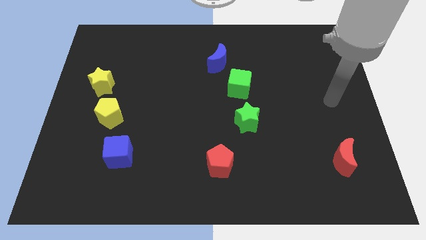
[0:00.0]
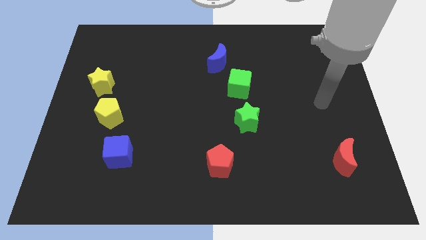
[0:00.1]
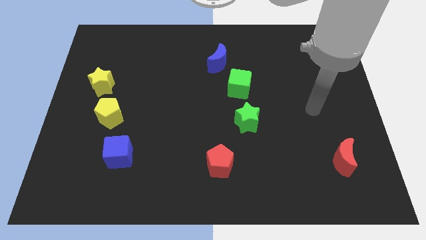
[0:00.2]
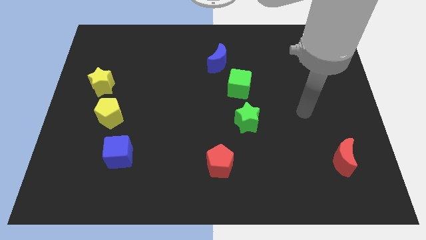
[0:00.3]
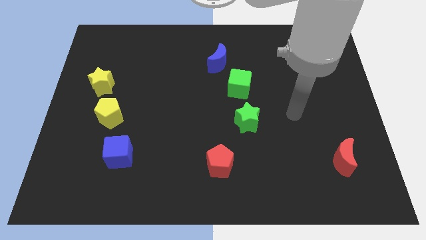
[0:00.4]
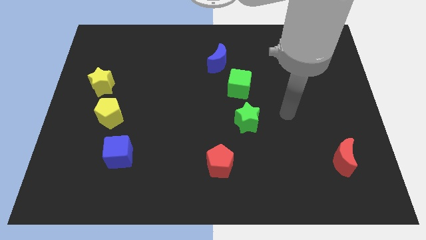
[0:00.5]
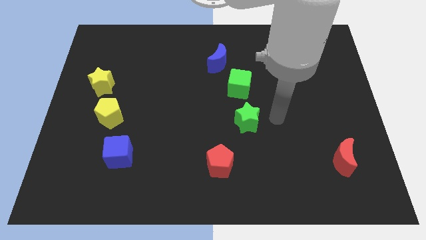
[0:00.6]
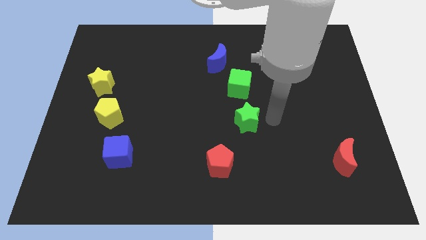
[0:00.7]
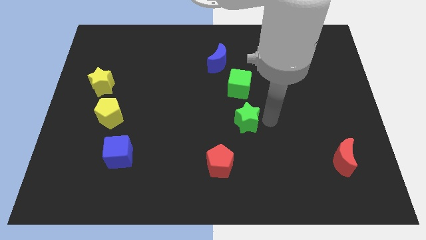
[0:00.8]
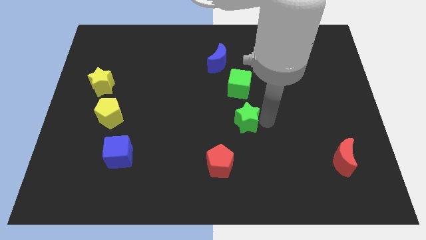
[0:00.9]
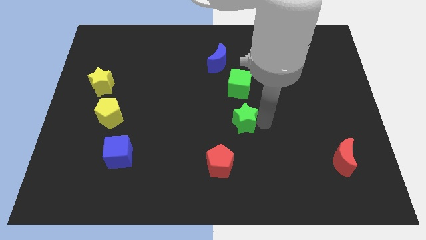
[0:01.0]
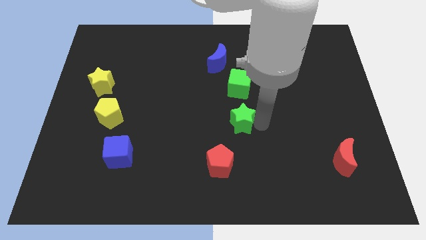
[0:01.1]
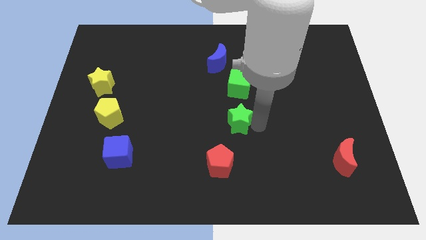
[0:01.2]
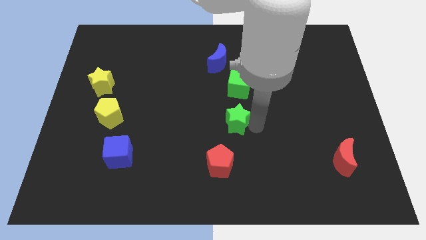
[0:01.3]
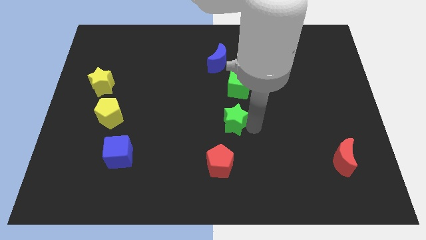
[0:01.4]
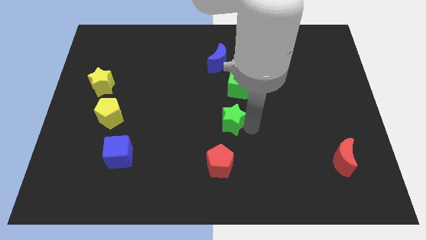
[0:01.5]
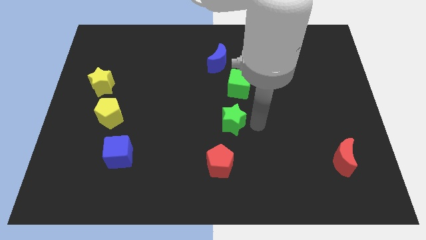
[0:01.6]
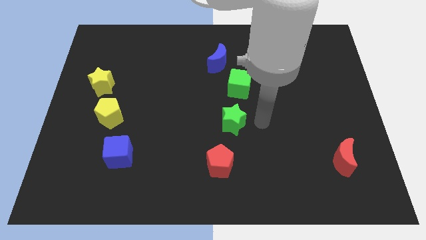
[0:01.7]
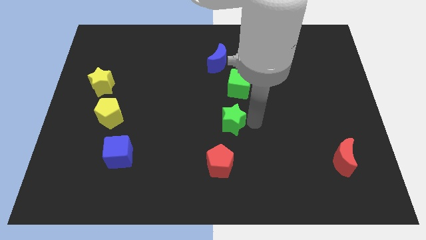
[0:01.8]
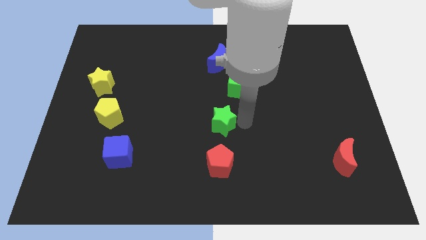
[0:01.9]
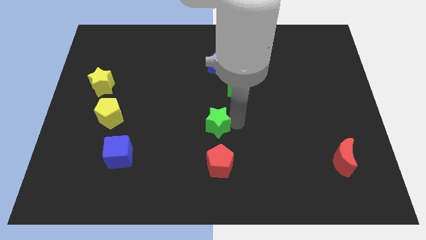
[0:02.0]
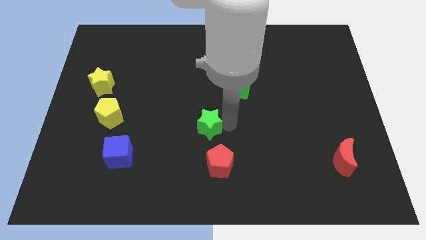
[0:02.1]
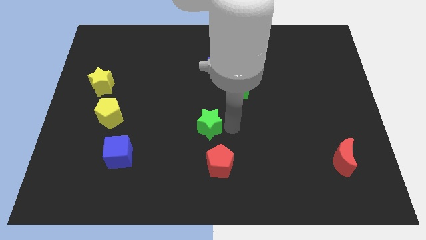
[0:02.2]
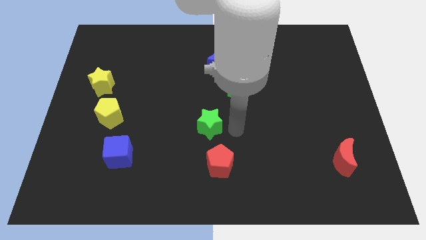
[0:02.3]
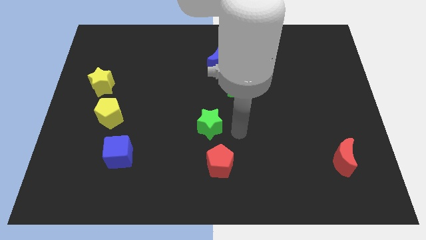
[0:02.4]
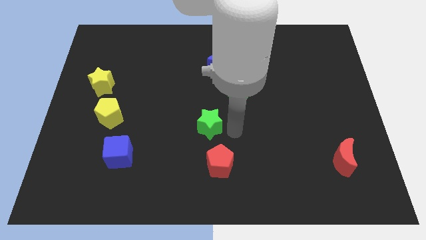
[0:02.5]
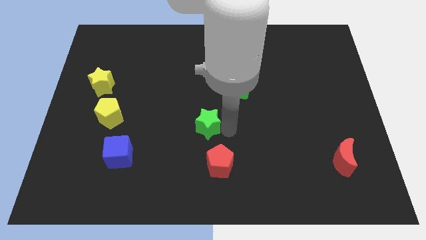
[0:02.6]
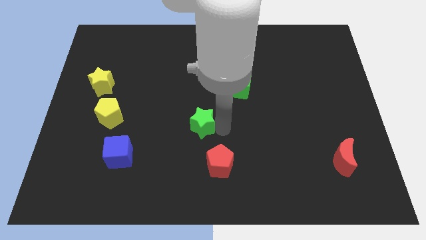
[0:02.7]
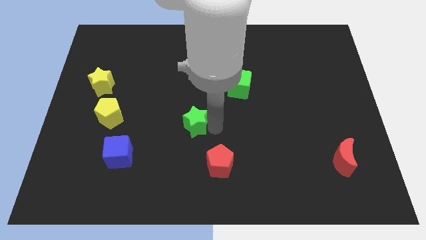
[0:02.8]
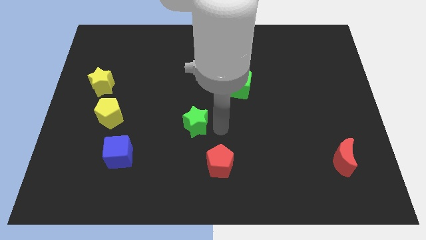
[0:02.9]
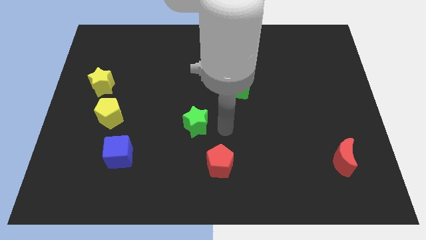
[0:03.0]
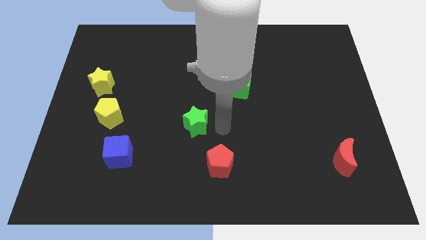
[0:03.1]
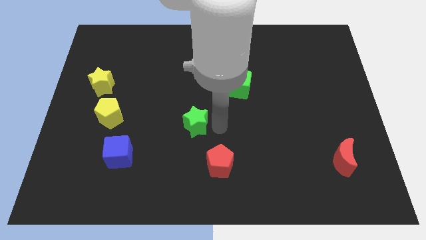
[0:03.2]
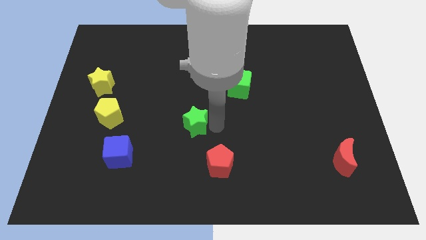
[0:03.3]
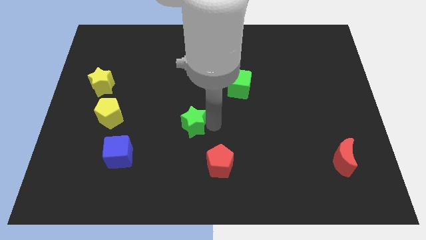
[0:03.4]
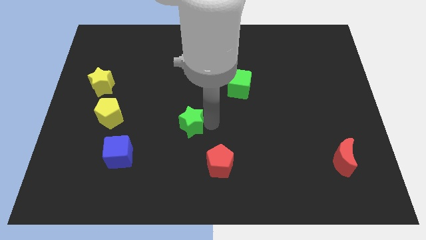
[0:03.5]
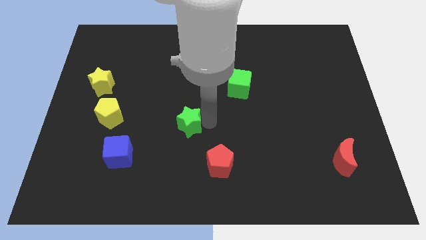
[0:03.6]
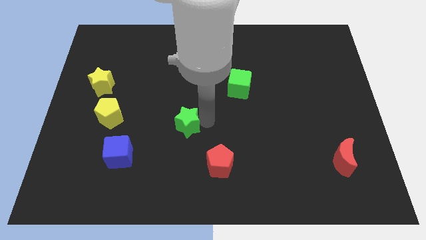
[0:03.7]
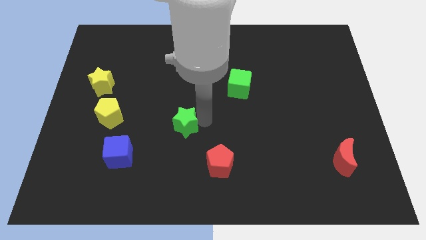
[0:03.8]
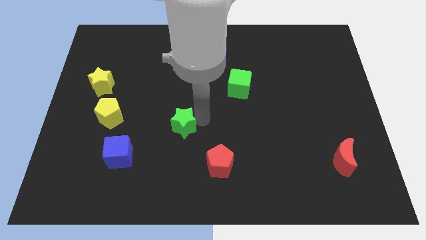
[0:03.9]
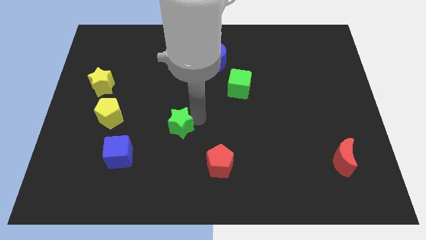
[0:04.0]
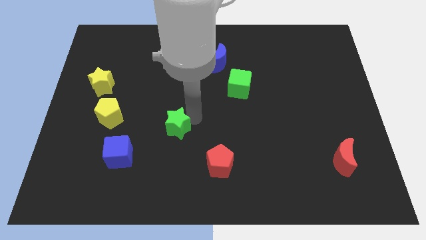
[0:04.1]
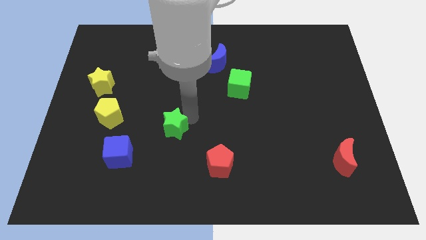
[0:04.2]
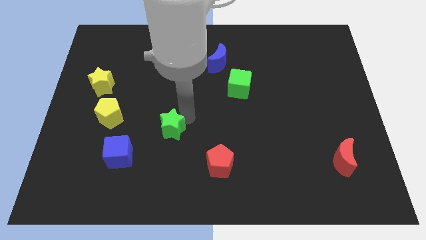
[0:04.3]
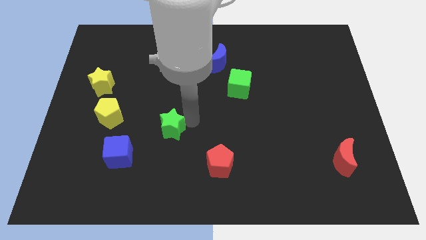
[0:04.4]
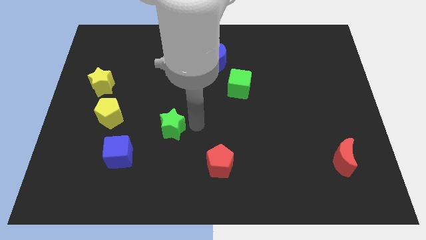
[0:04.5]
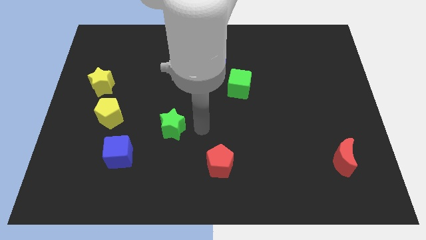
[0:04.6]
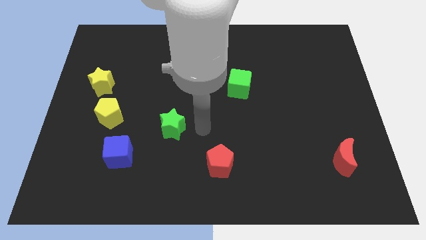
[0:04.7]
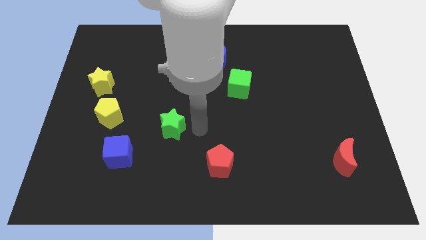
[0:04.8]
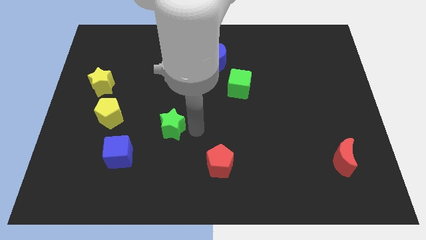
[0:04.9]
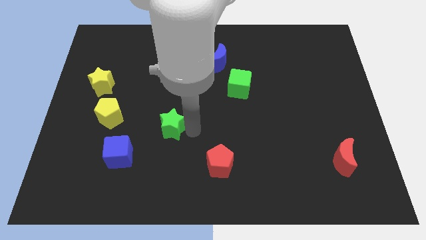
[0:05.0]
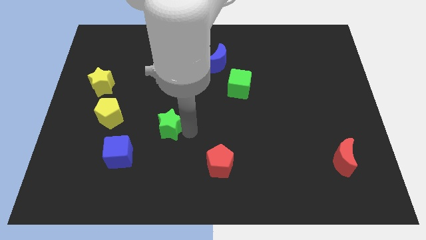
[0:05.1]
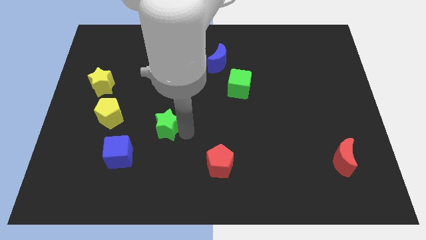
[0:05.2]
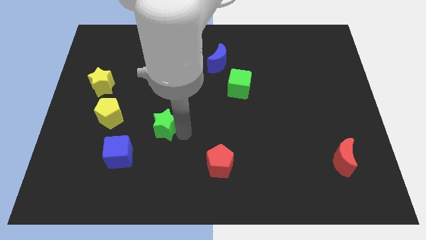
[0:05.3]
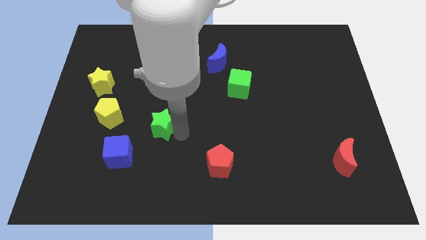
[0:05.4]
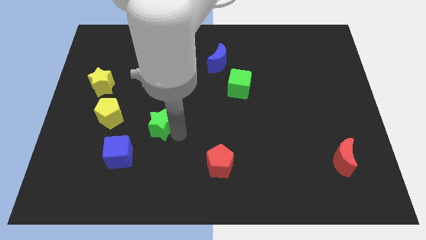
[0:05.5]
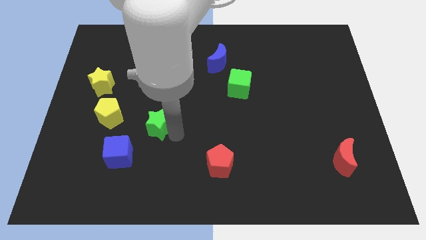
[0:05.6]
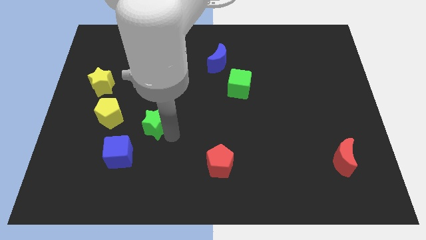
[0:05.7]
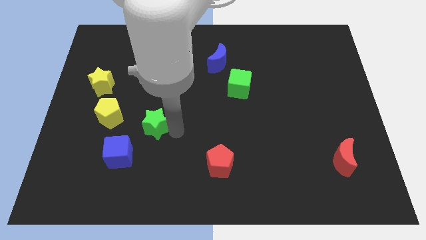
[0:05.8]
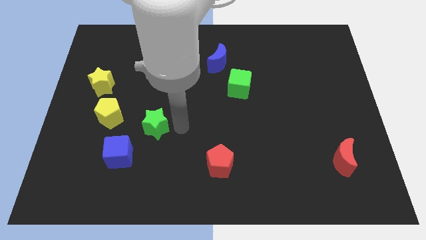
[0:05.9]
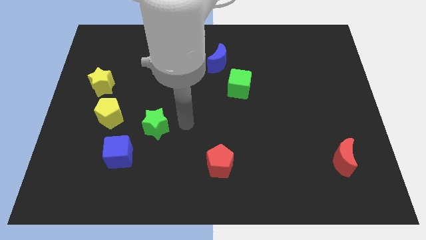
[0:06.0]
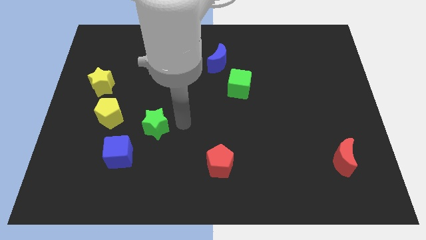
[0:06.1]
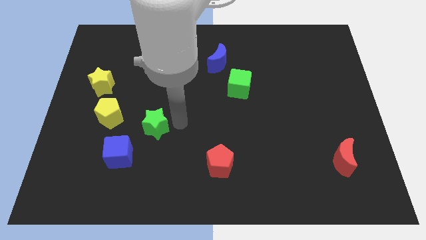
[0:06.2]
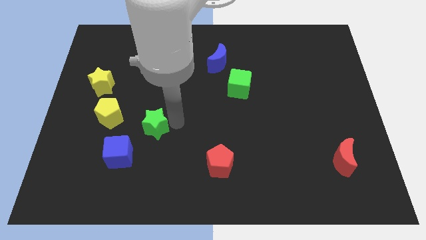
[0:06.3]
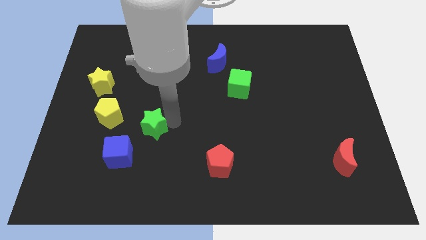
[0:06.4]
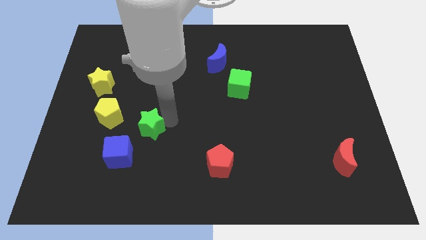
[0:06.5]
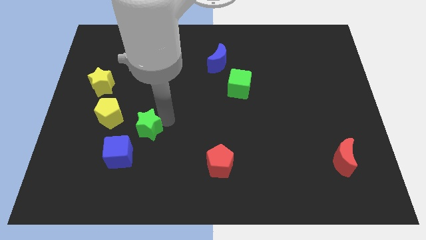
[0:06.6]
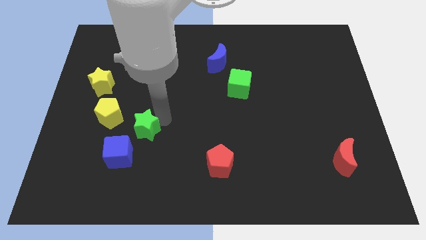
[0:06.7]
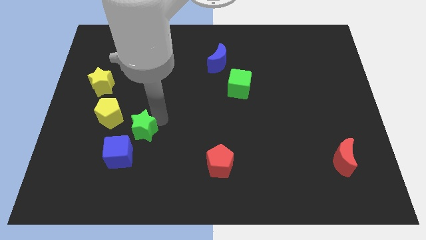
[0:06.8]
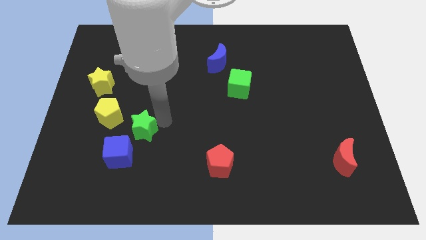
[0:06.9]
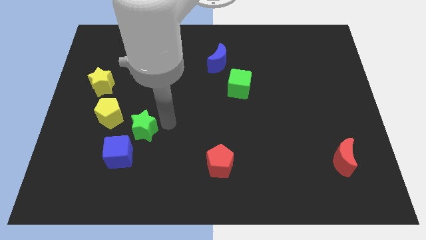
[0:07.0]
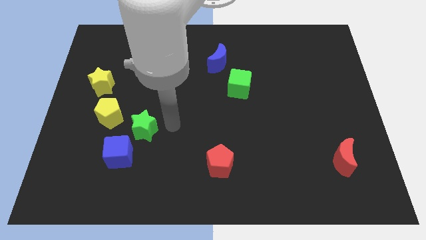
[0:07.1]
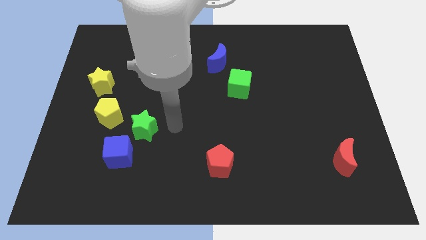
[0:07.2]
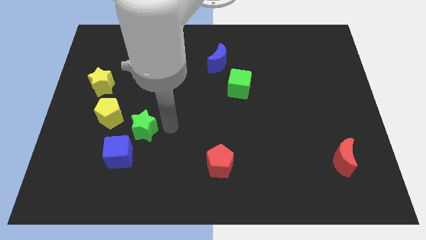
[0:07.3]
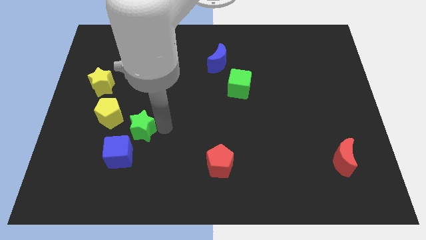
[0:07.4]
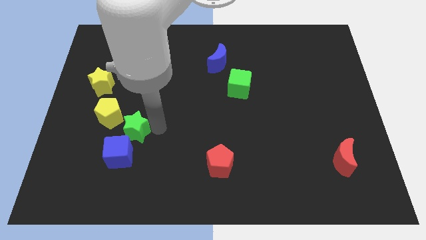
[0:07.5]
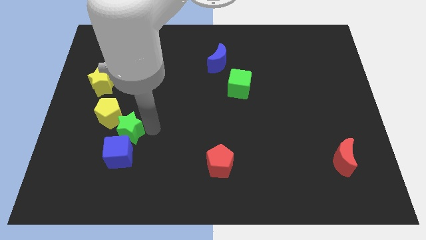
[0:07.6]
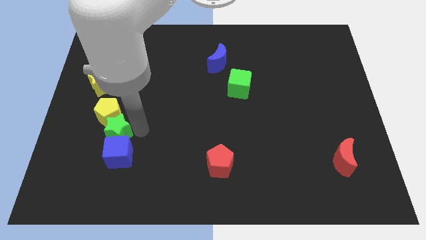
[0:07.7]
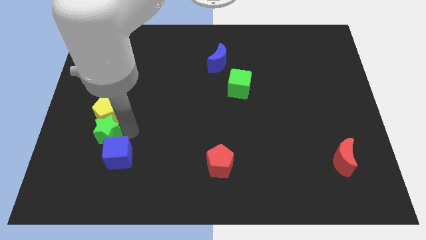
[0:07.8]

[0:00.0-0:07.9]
put the green star to the bottom left of the yellow pentagon
